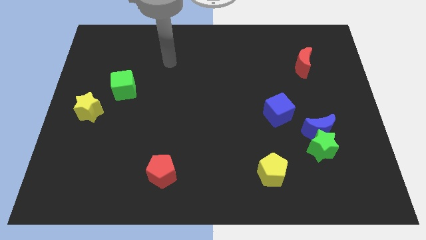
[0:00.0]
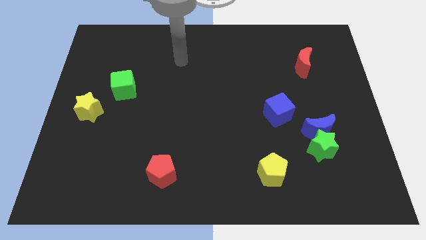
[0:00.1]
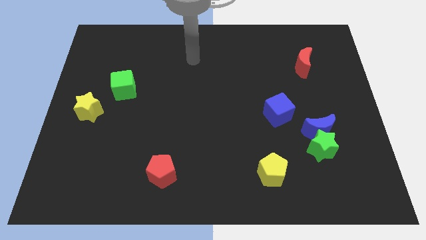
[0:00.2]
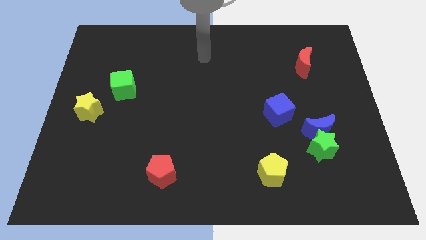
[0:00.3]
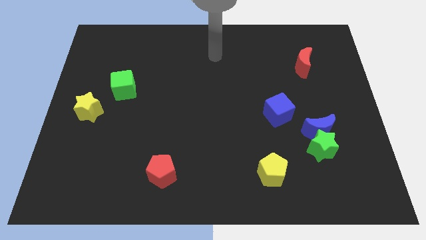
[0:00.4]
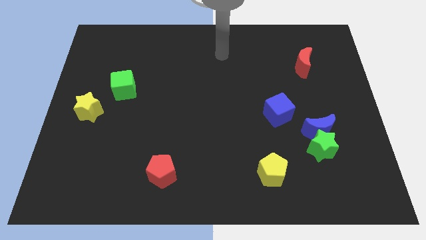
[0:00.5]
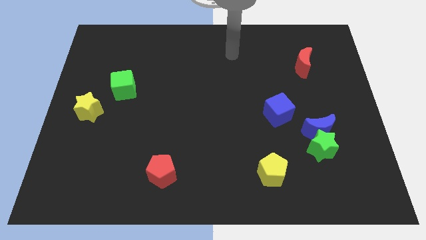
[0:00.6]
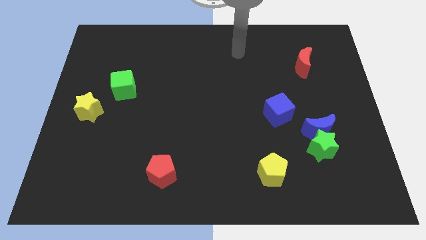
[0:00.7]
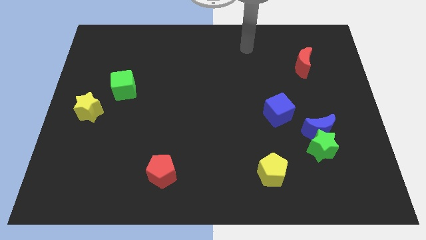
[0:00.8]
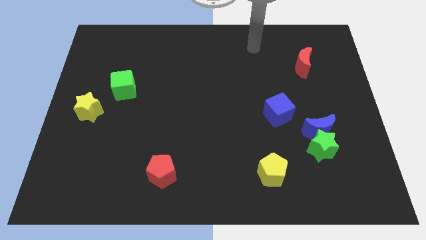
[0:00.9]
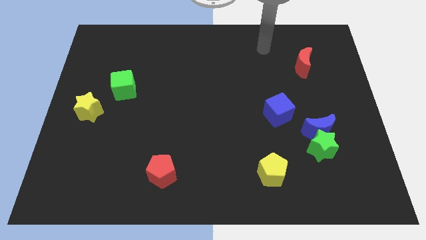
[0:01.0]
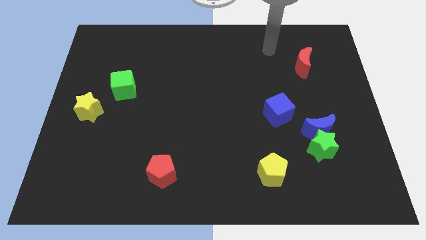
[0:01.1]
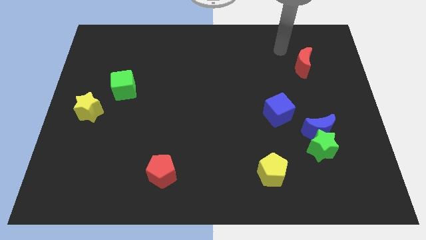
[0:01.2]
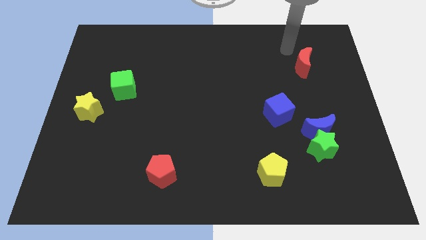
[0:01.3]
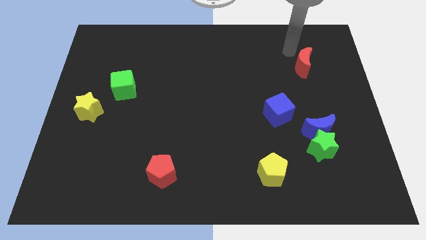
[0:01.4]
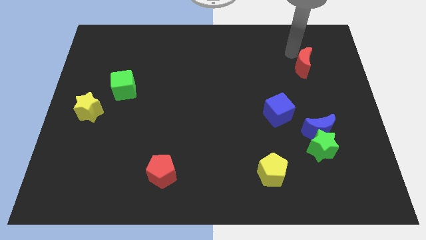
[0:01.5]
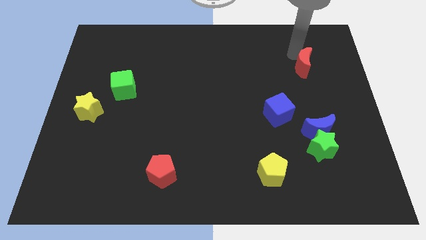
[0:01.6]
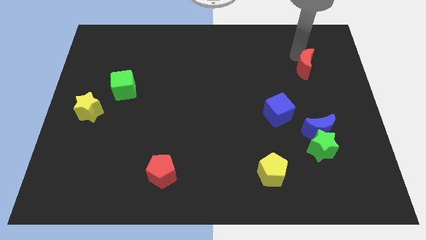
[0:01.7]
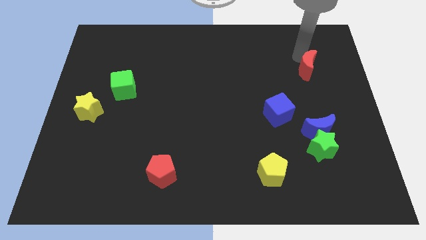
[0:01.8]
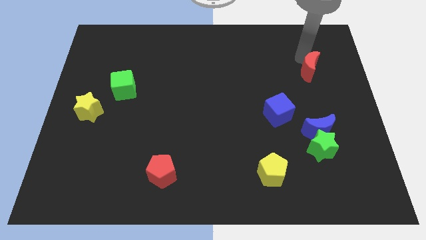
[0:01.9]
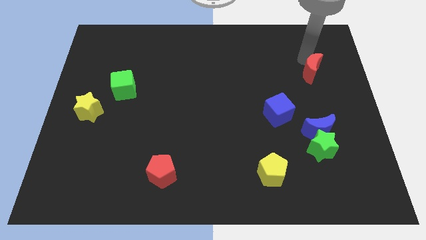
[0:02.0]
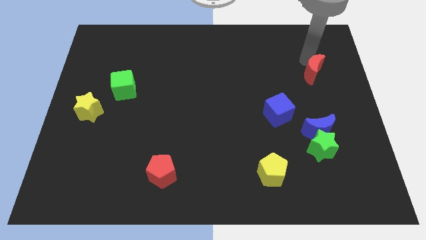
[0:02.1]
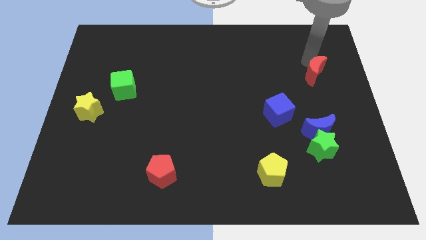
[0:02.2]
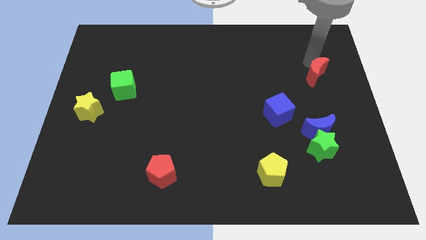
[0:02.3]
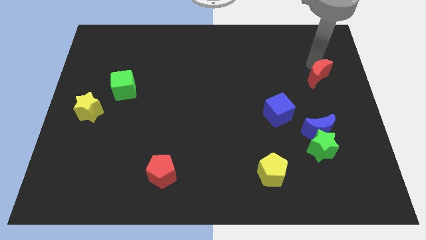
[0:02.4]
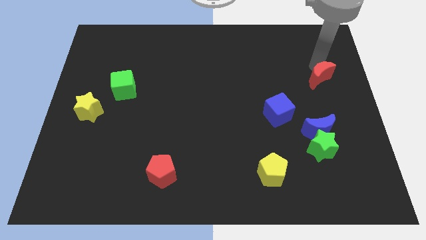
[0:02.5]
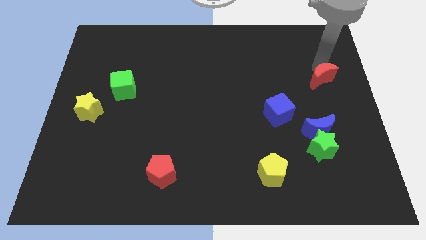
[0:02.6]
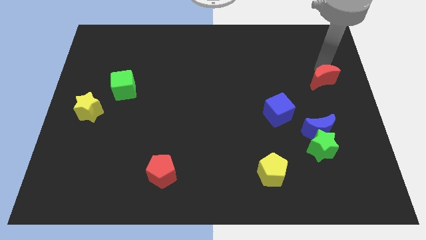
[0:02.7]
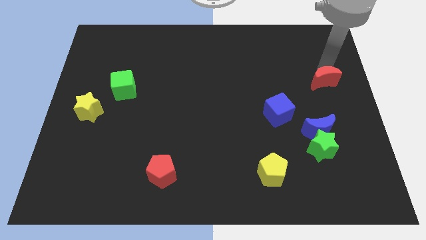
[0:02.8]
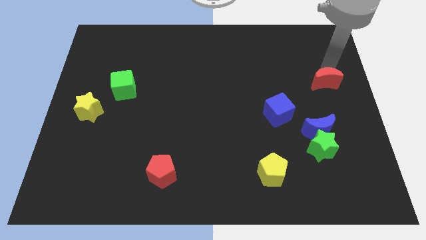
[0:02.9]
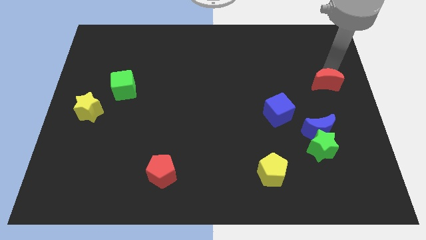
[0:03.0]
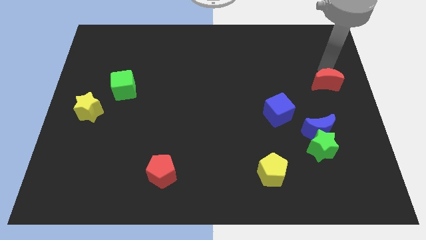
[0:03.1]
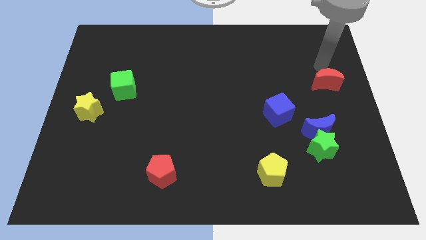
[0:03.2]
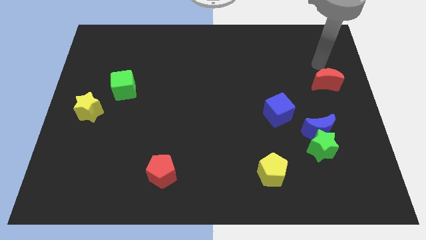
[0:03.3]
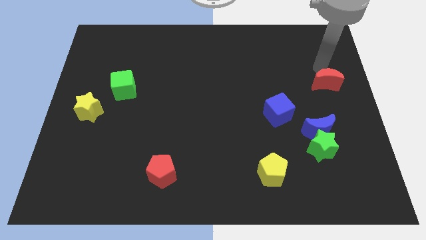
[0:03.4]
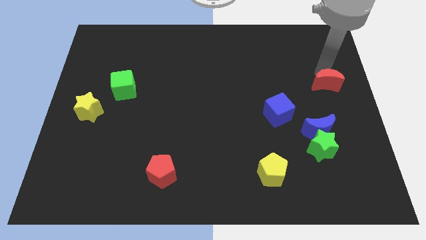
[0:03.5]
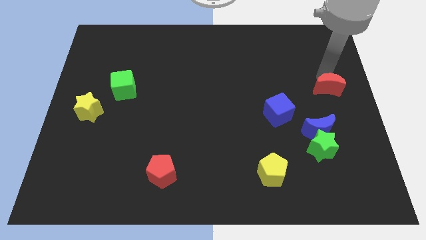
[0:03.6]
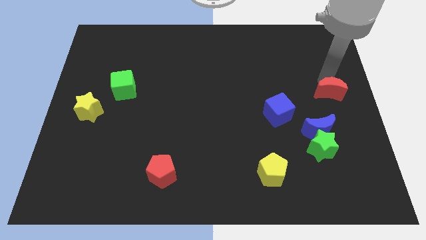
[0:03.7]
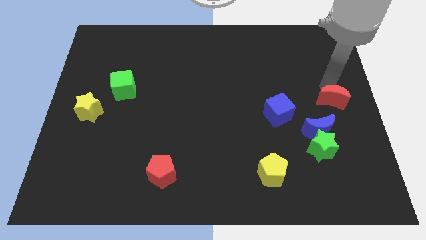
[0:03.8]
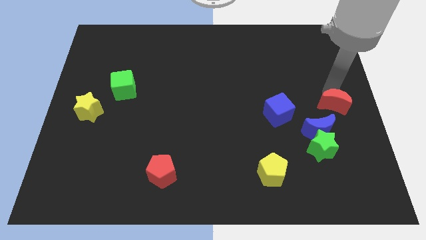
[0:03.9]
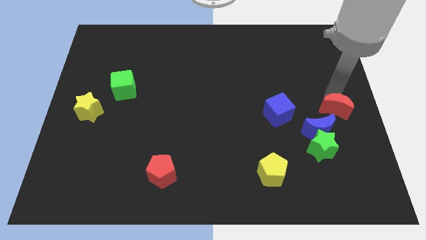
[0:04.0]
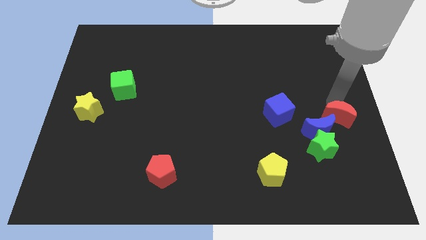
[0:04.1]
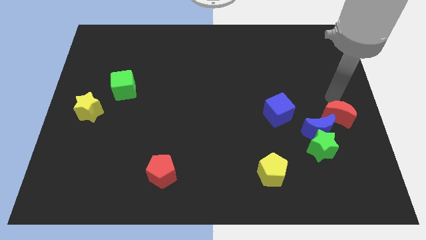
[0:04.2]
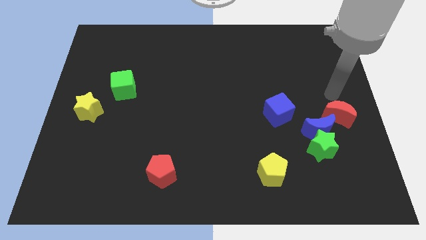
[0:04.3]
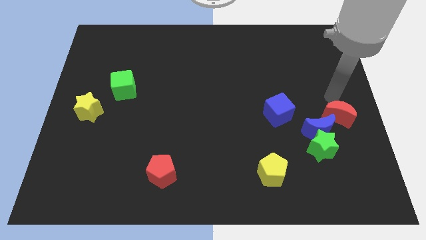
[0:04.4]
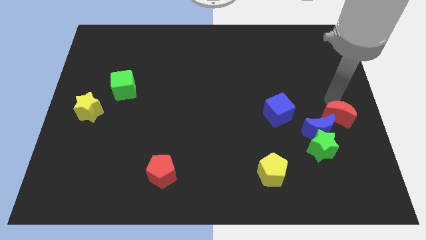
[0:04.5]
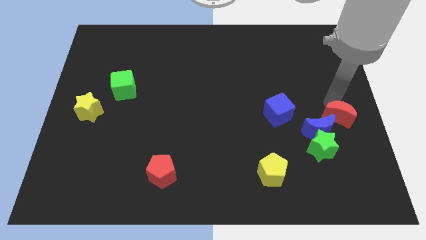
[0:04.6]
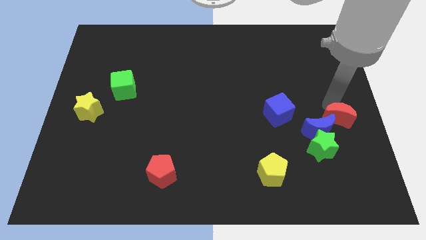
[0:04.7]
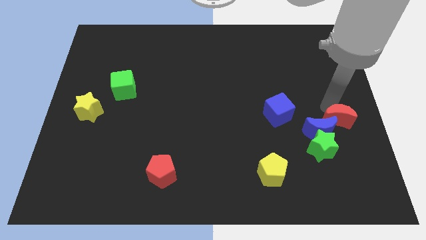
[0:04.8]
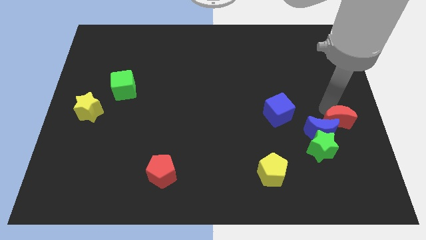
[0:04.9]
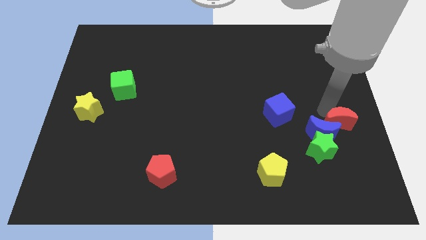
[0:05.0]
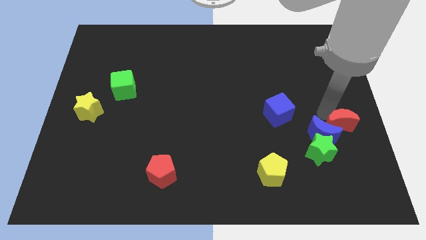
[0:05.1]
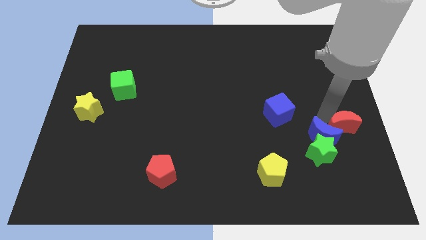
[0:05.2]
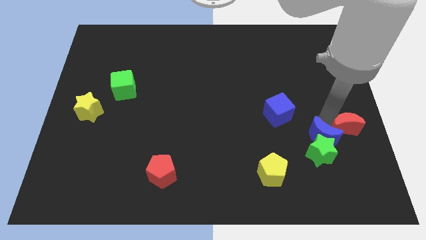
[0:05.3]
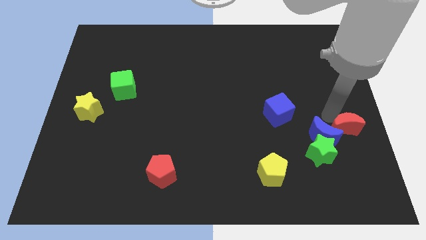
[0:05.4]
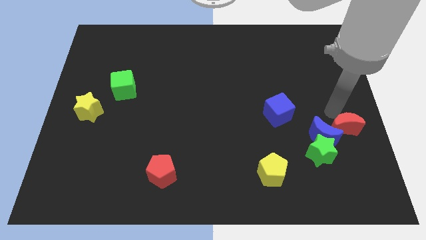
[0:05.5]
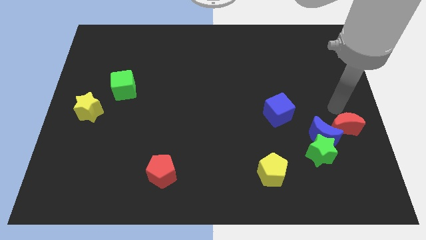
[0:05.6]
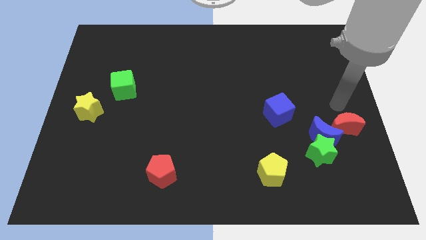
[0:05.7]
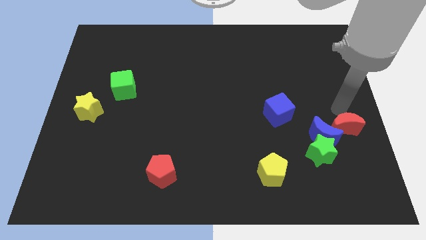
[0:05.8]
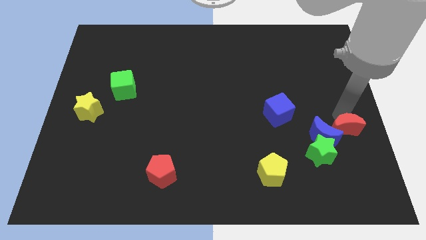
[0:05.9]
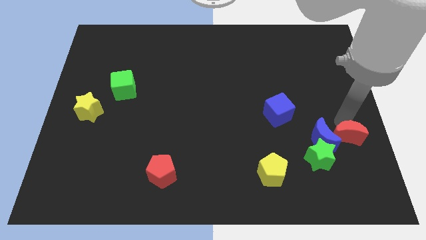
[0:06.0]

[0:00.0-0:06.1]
push the red moon to the bottom right side of the blue moon

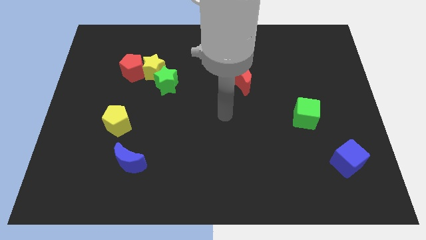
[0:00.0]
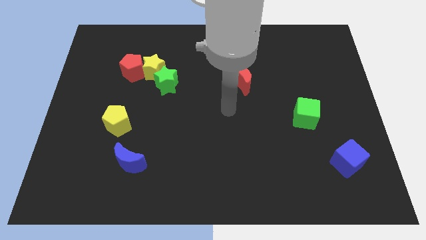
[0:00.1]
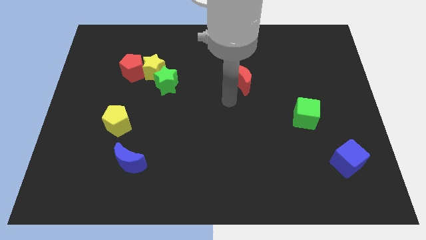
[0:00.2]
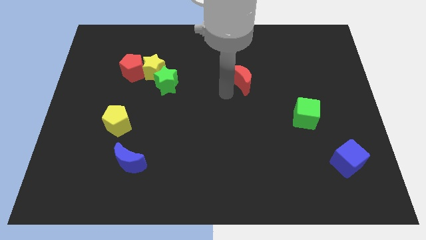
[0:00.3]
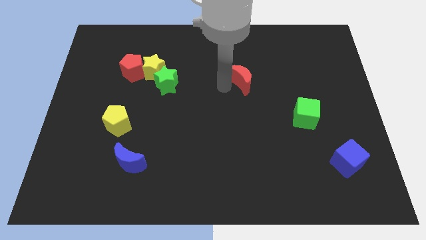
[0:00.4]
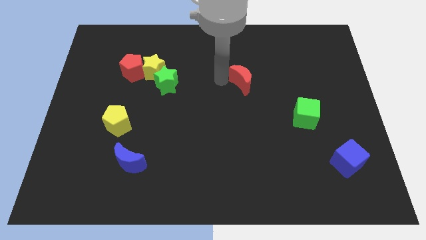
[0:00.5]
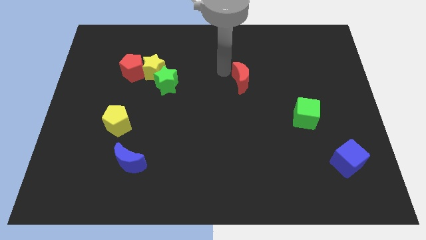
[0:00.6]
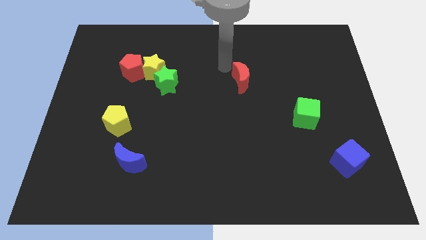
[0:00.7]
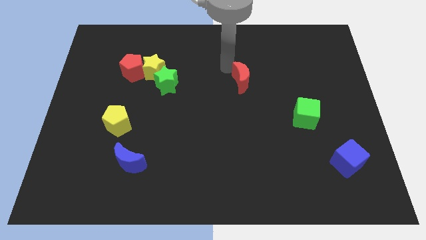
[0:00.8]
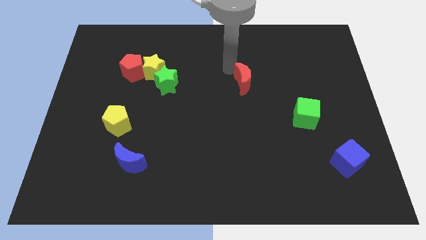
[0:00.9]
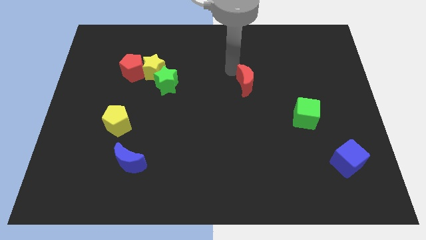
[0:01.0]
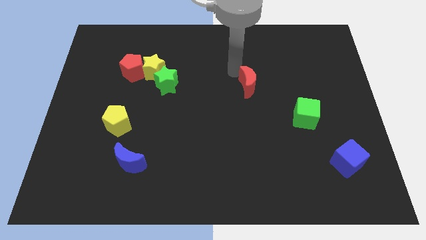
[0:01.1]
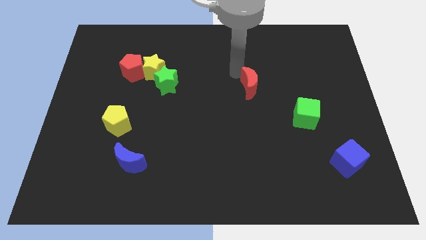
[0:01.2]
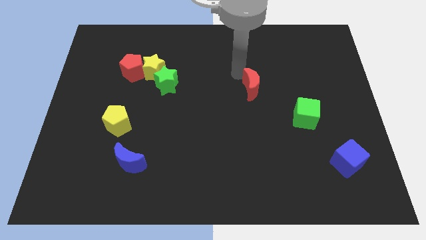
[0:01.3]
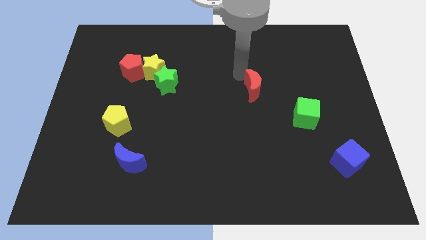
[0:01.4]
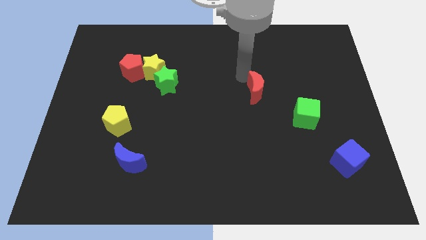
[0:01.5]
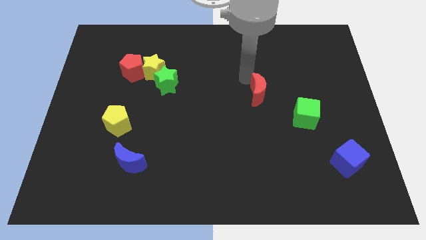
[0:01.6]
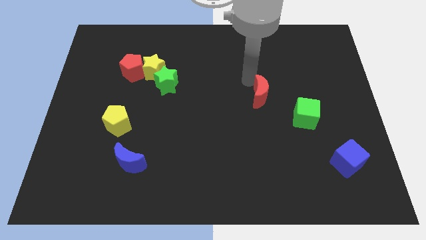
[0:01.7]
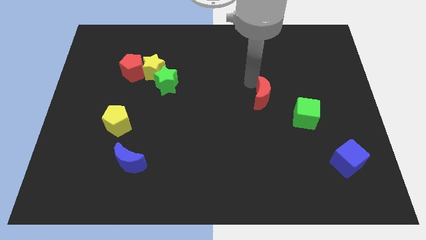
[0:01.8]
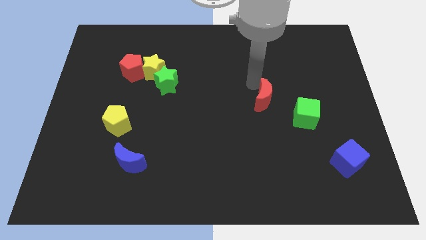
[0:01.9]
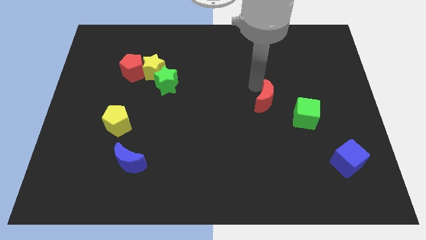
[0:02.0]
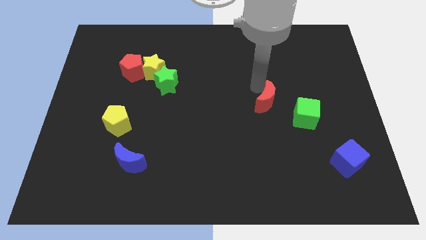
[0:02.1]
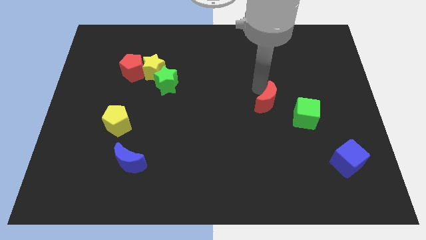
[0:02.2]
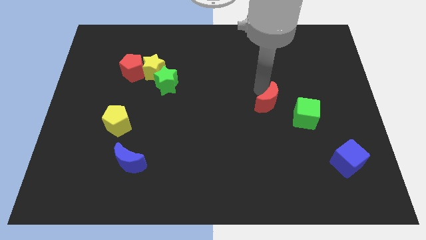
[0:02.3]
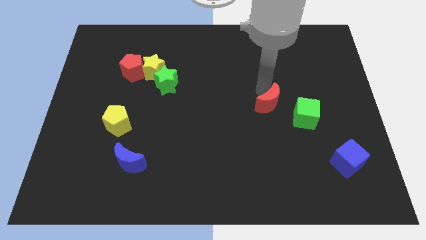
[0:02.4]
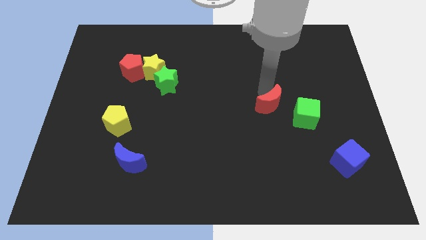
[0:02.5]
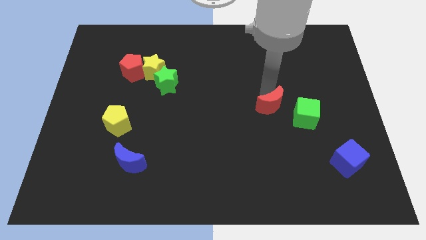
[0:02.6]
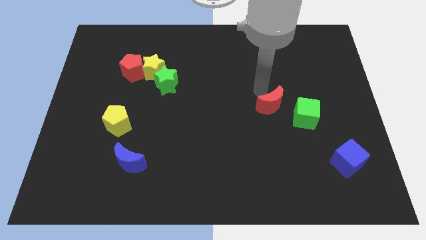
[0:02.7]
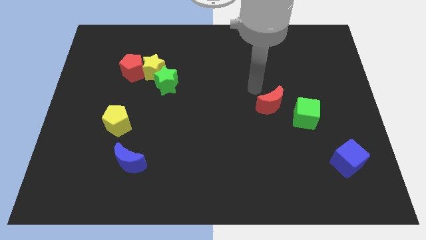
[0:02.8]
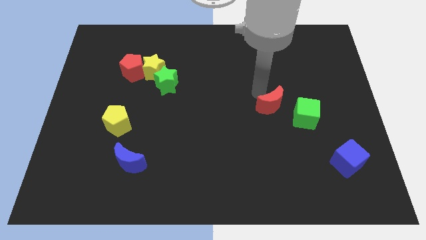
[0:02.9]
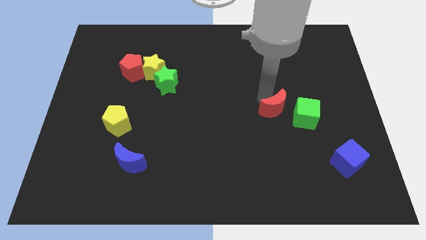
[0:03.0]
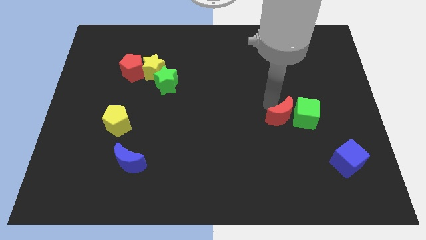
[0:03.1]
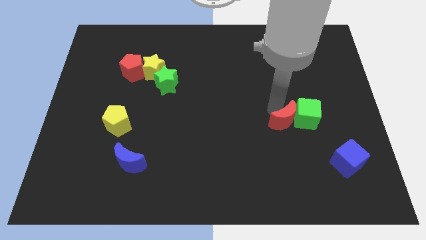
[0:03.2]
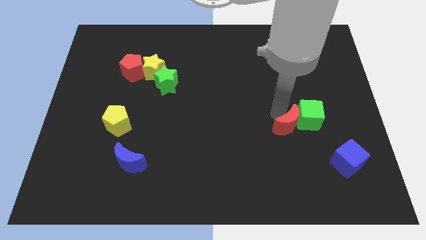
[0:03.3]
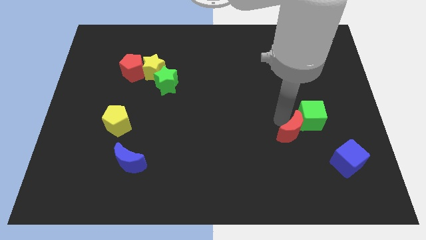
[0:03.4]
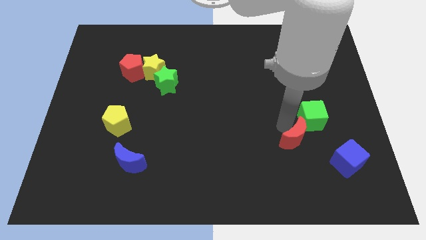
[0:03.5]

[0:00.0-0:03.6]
move the red moon diagonally up and to the left of the blue cube
